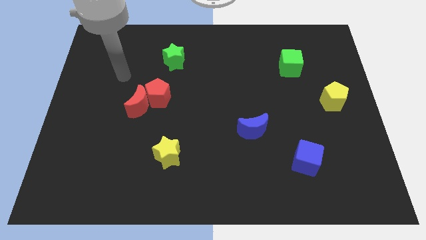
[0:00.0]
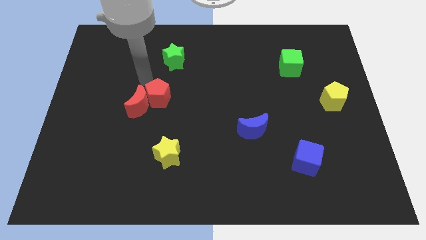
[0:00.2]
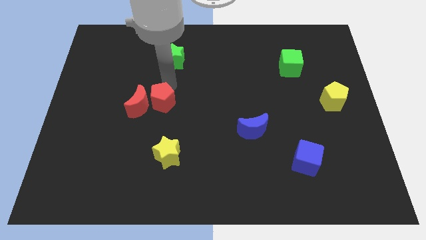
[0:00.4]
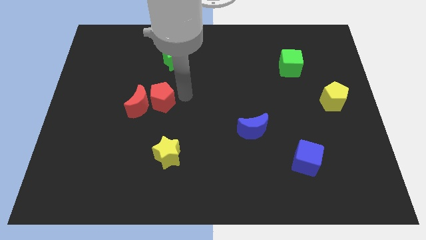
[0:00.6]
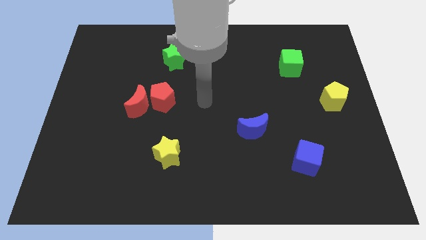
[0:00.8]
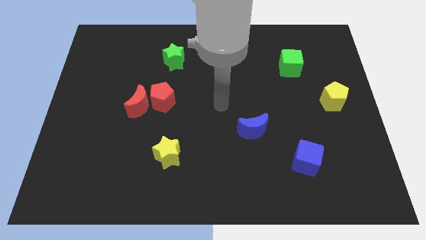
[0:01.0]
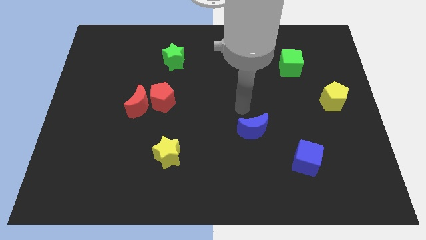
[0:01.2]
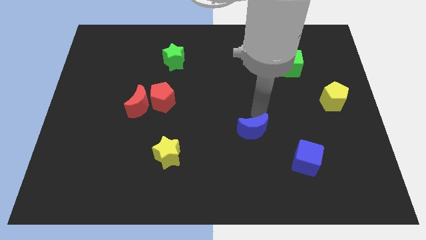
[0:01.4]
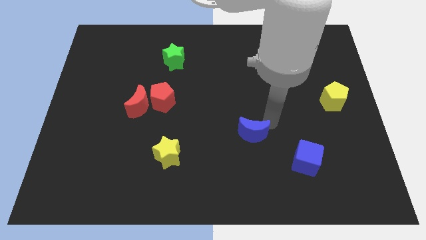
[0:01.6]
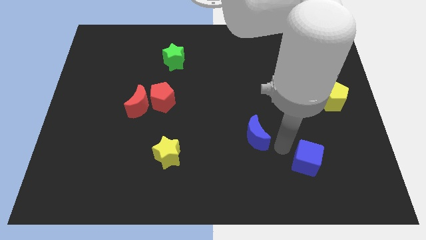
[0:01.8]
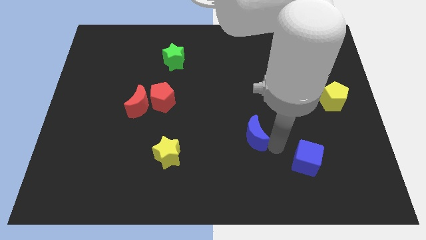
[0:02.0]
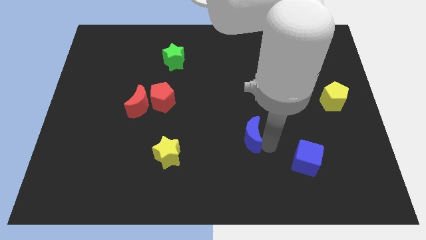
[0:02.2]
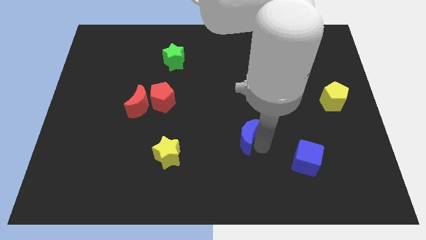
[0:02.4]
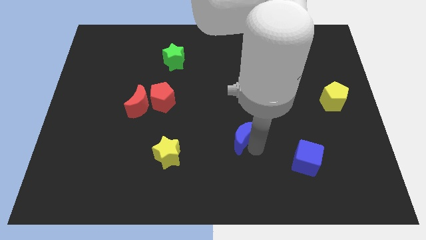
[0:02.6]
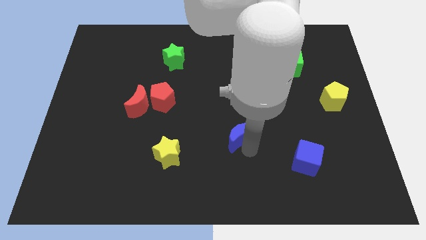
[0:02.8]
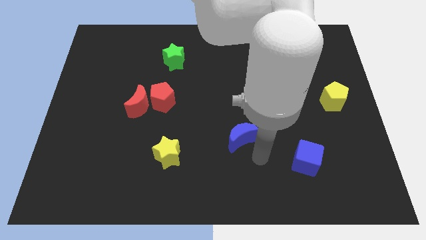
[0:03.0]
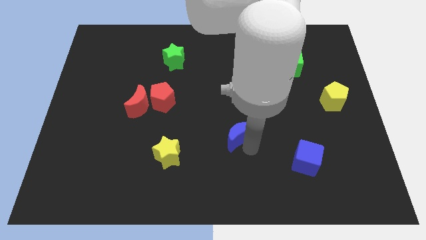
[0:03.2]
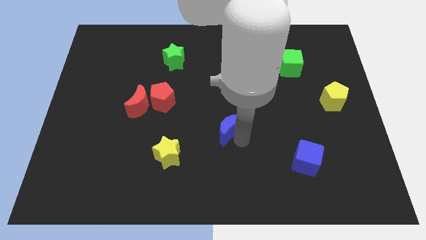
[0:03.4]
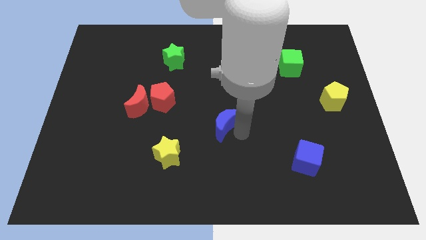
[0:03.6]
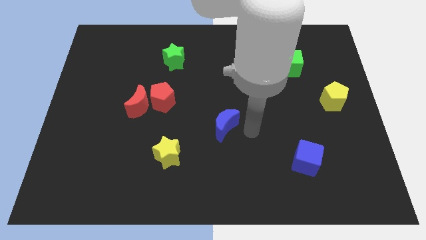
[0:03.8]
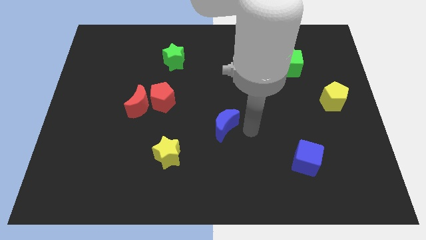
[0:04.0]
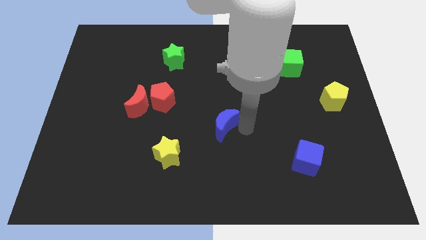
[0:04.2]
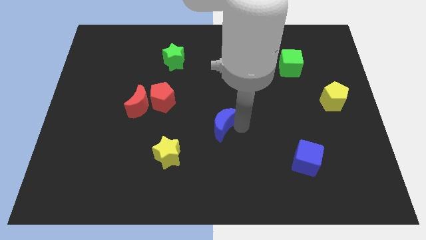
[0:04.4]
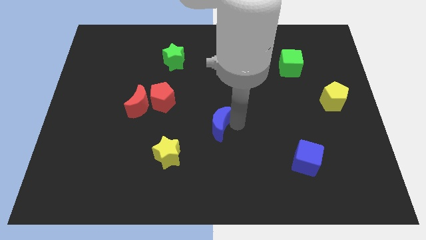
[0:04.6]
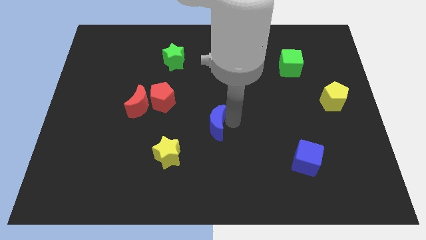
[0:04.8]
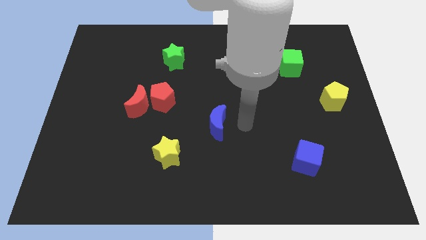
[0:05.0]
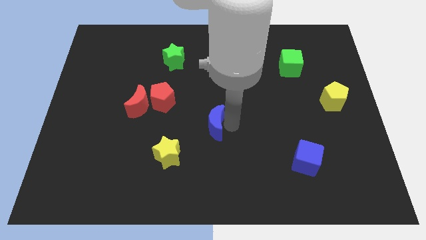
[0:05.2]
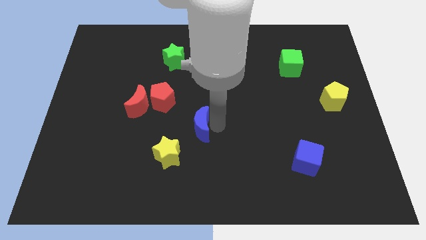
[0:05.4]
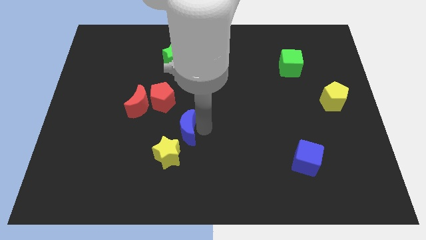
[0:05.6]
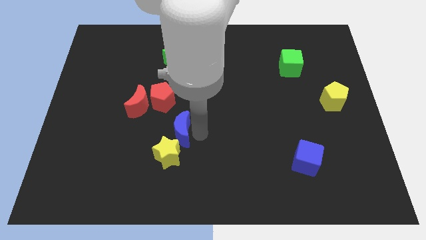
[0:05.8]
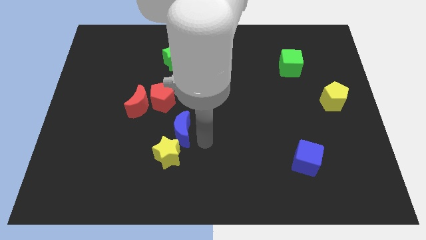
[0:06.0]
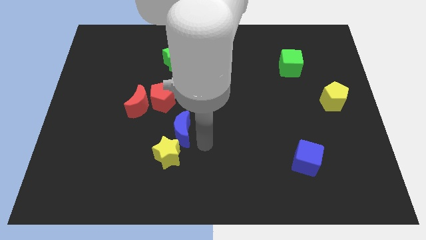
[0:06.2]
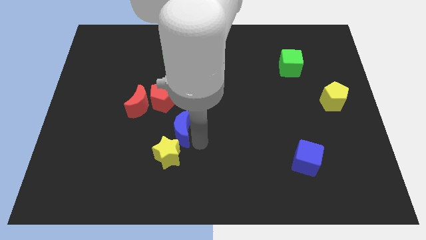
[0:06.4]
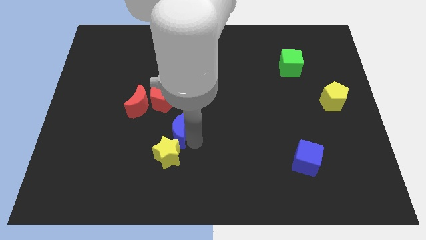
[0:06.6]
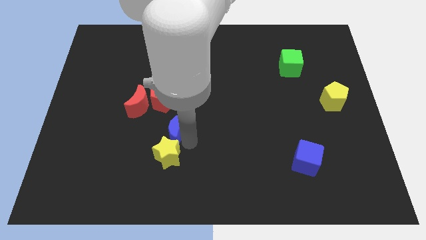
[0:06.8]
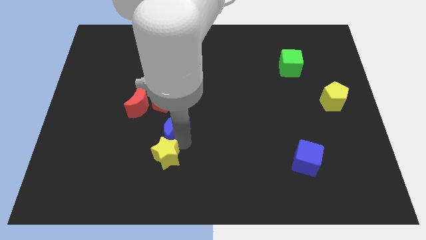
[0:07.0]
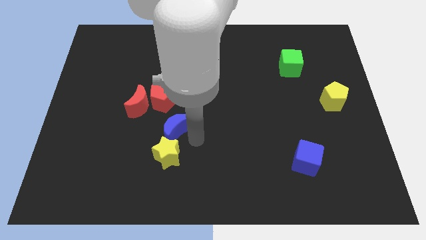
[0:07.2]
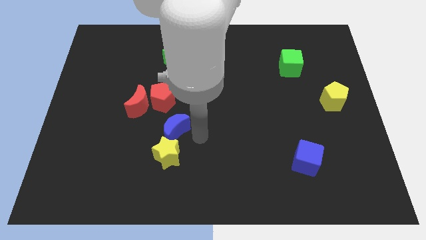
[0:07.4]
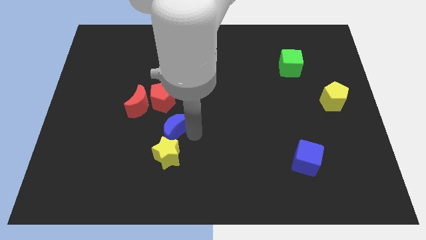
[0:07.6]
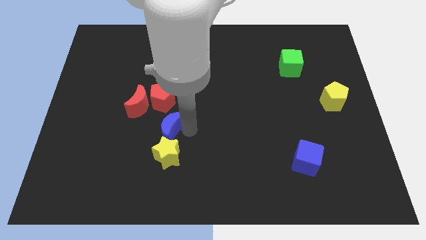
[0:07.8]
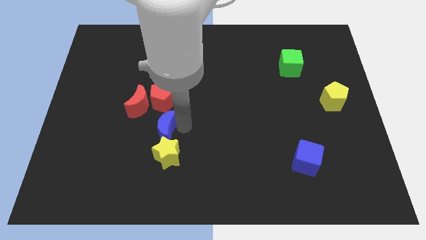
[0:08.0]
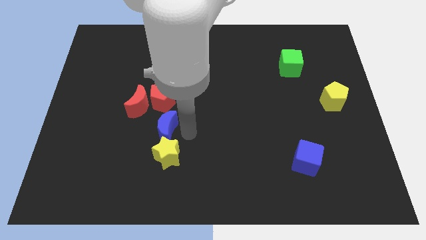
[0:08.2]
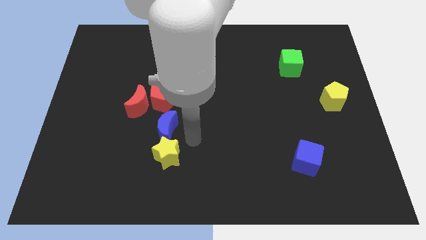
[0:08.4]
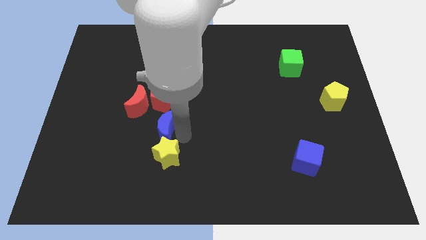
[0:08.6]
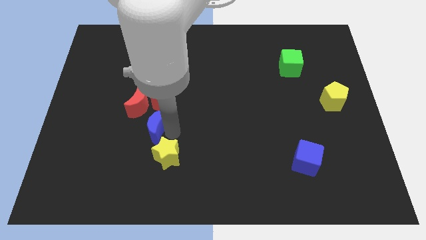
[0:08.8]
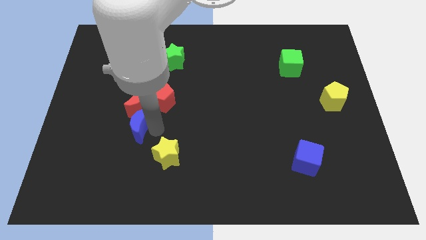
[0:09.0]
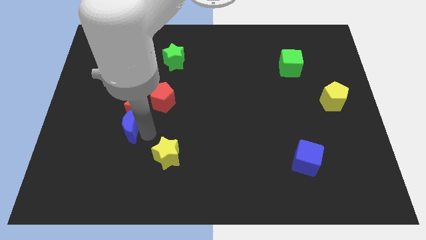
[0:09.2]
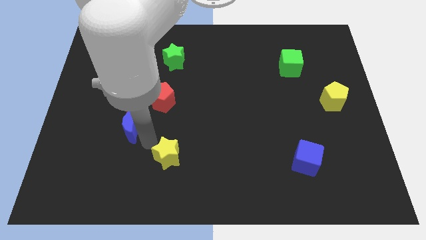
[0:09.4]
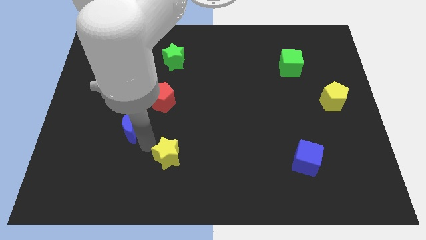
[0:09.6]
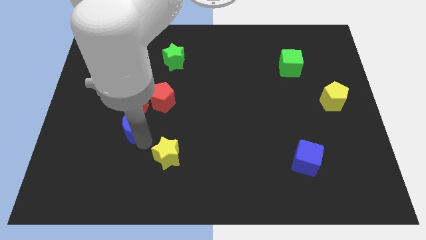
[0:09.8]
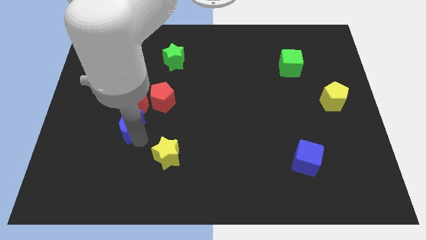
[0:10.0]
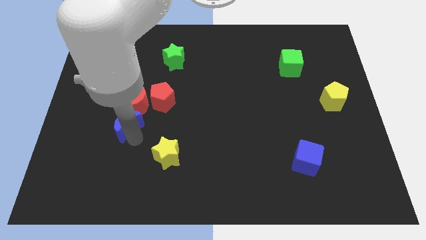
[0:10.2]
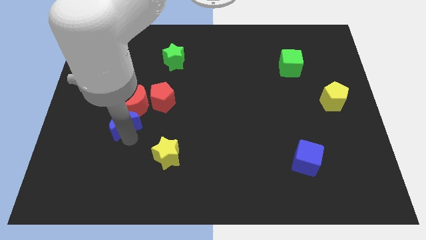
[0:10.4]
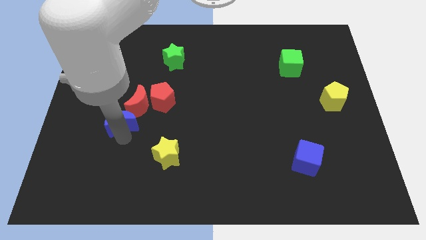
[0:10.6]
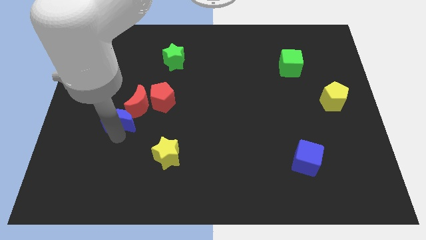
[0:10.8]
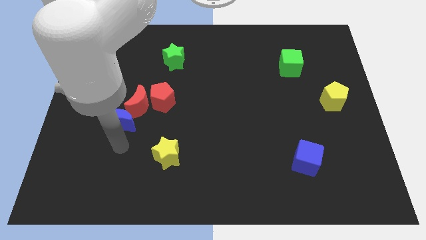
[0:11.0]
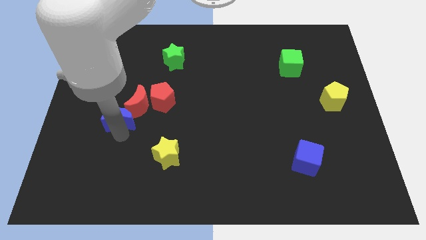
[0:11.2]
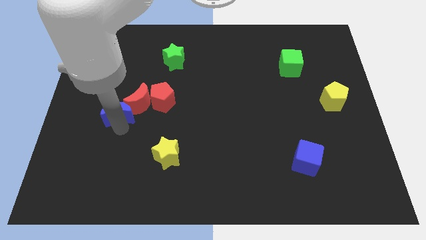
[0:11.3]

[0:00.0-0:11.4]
push the blue moon left of the red pentagon
